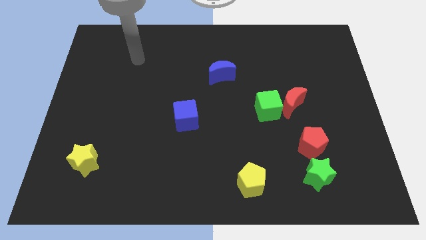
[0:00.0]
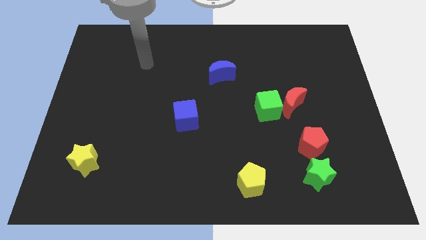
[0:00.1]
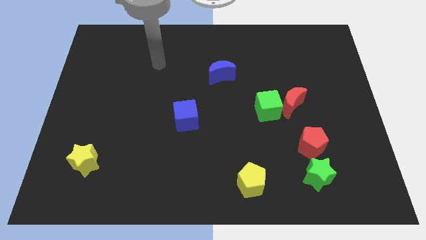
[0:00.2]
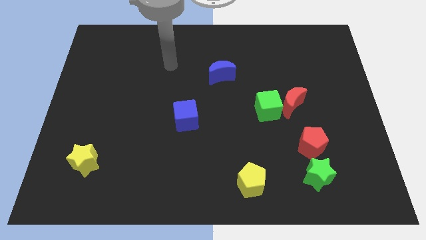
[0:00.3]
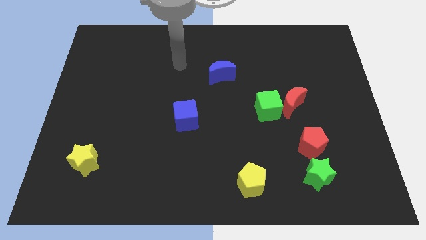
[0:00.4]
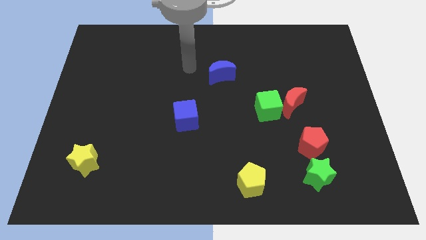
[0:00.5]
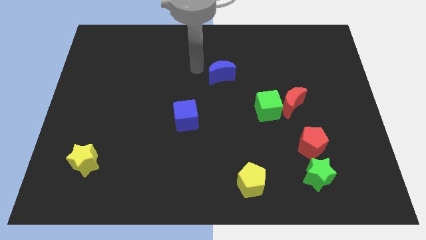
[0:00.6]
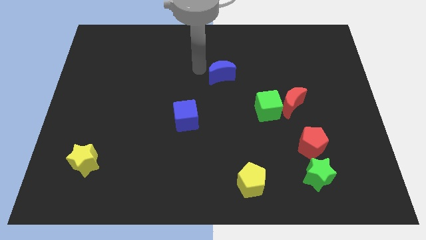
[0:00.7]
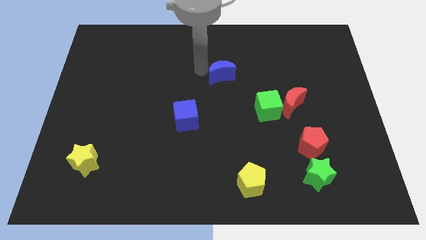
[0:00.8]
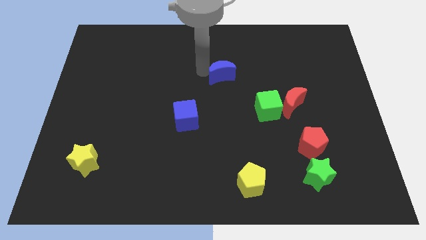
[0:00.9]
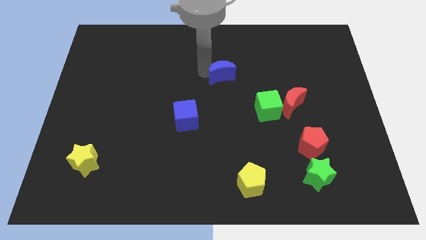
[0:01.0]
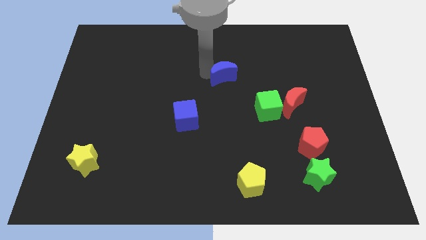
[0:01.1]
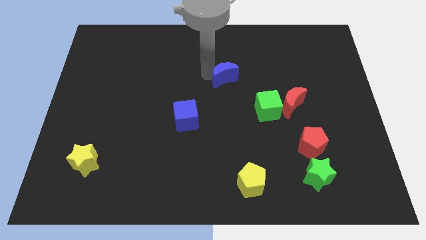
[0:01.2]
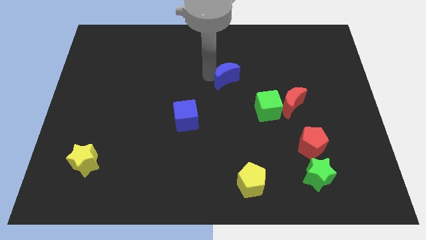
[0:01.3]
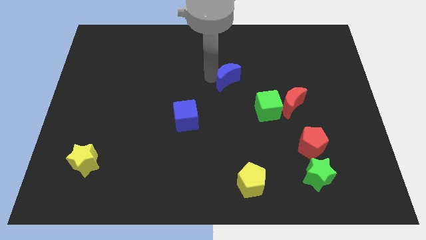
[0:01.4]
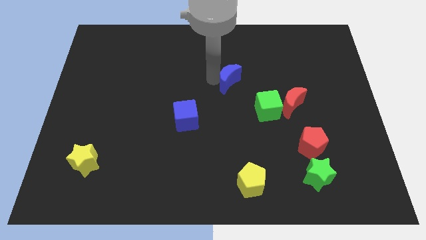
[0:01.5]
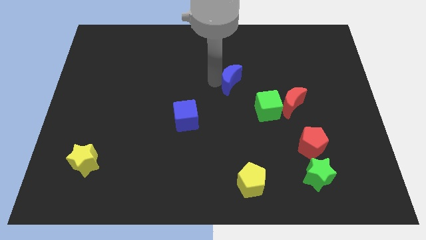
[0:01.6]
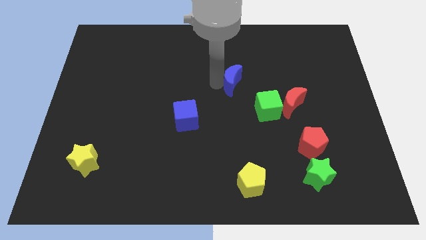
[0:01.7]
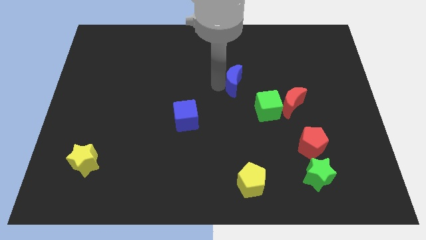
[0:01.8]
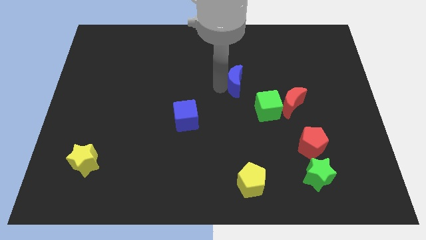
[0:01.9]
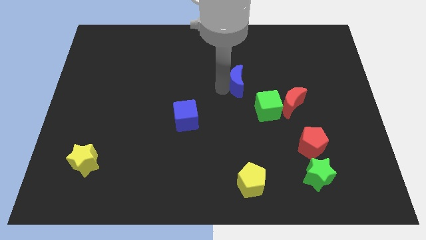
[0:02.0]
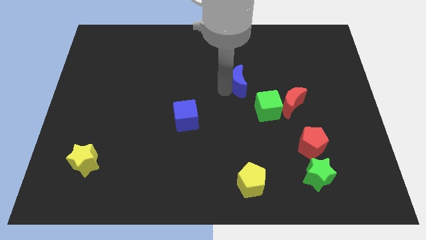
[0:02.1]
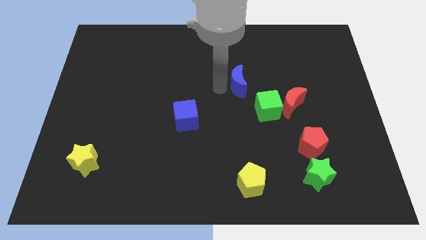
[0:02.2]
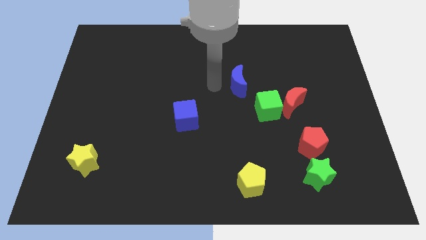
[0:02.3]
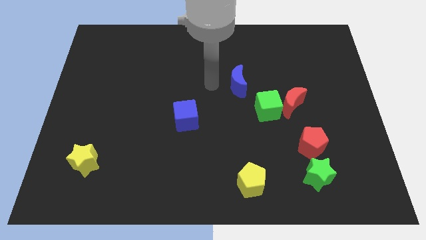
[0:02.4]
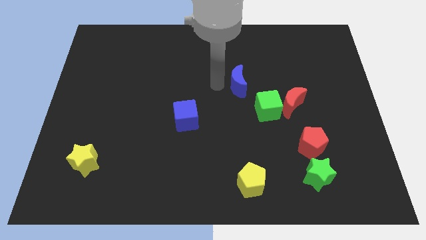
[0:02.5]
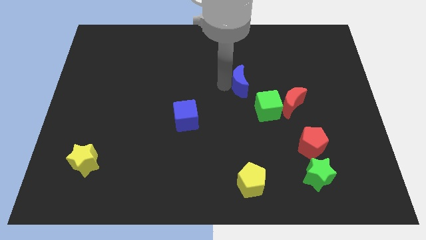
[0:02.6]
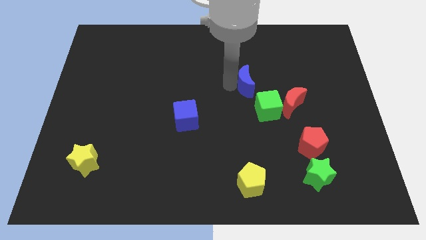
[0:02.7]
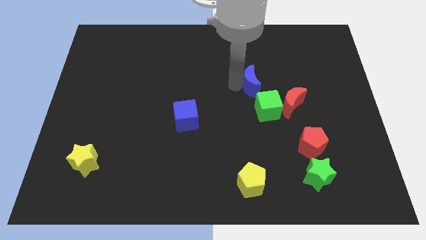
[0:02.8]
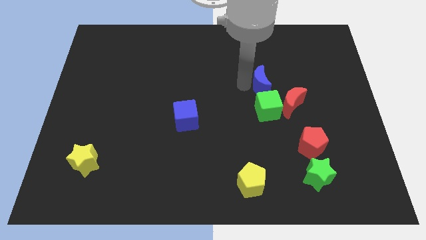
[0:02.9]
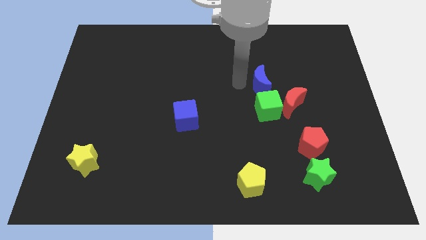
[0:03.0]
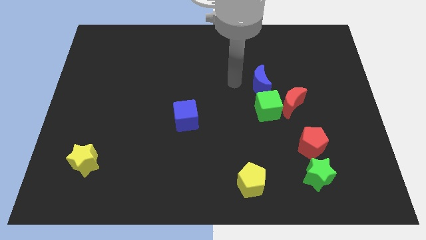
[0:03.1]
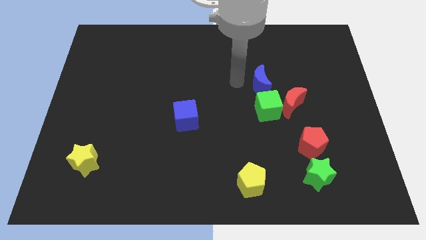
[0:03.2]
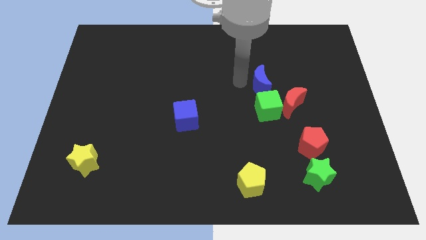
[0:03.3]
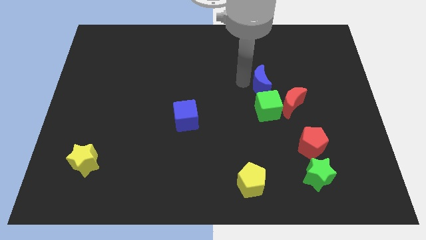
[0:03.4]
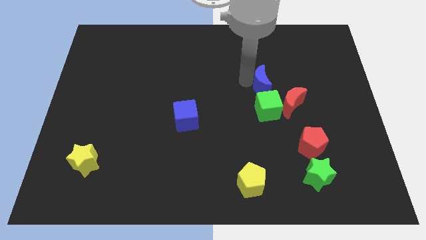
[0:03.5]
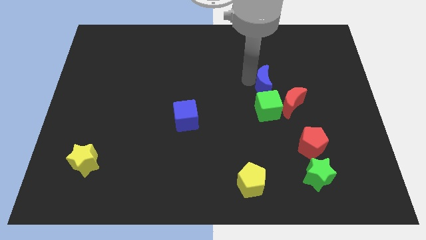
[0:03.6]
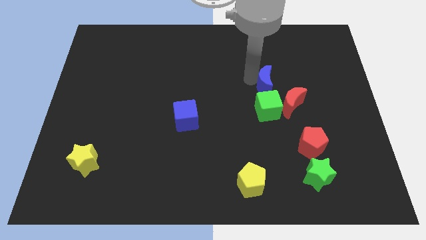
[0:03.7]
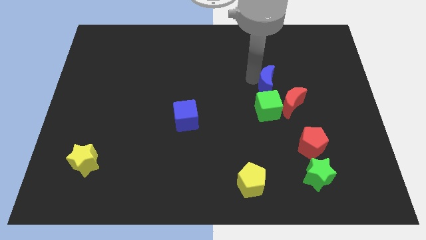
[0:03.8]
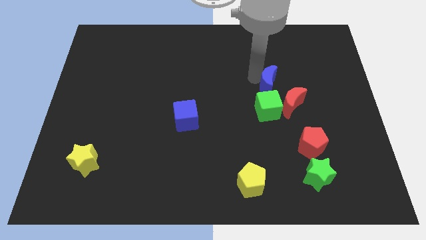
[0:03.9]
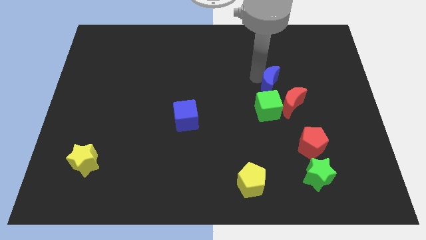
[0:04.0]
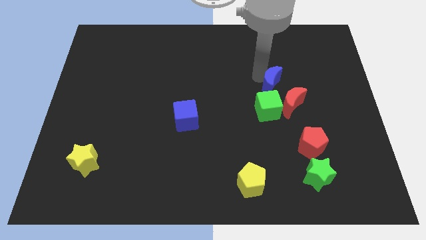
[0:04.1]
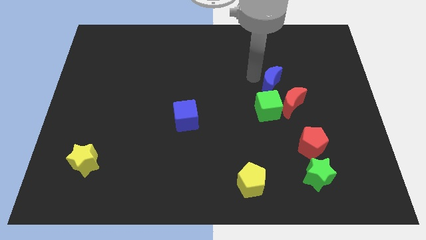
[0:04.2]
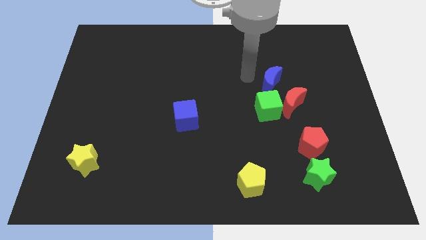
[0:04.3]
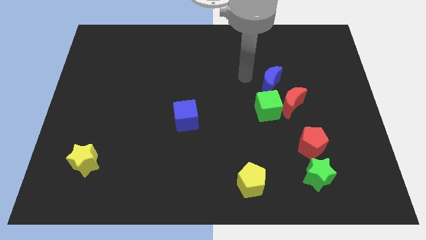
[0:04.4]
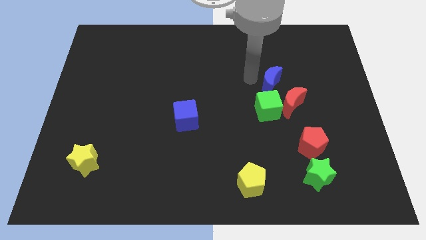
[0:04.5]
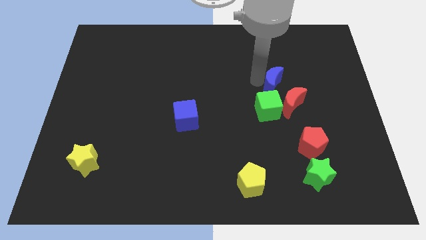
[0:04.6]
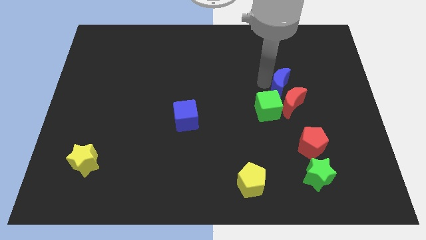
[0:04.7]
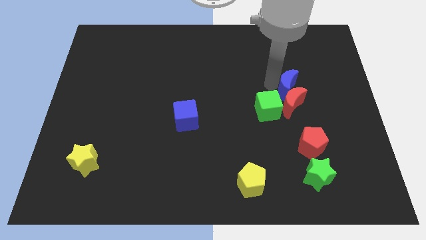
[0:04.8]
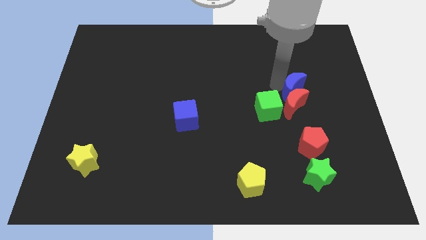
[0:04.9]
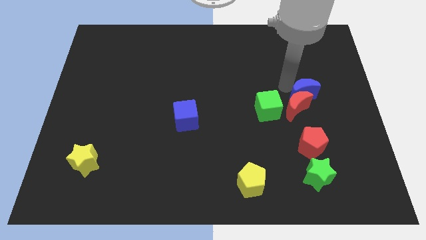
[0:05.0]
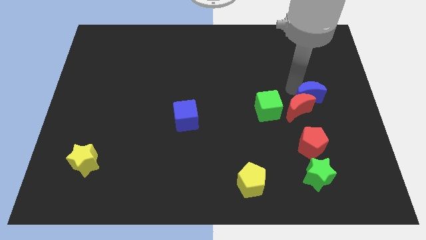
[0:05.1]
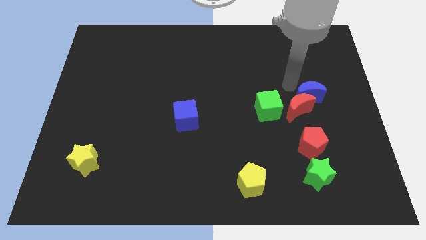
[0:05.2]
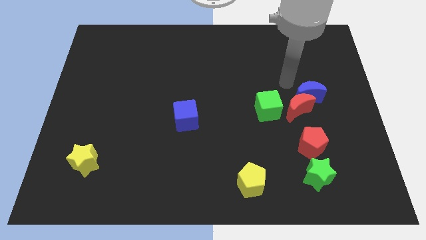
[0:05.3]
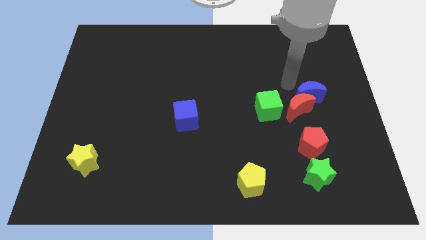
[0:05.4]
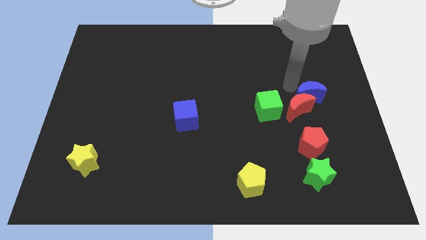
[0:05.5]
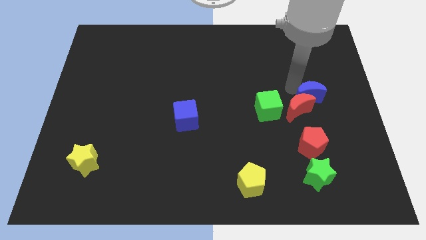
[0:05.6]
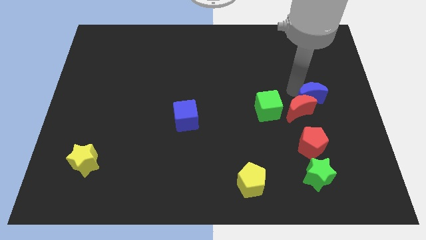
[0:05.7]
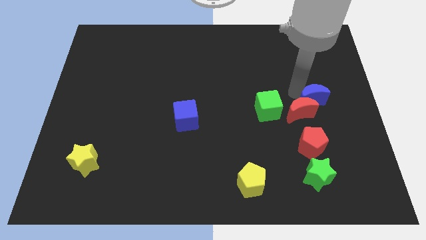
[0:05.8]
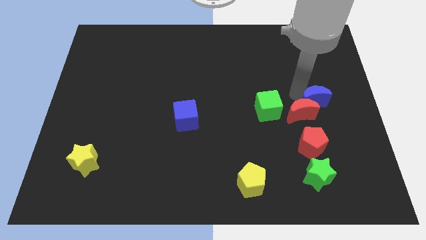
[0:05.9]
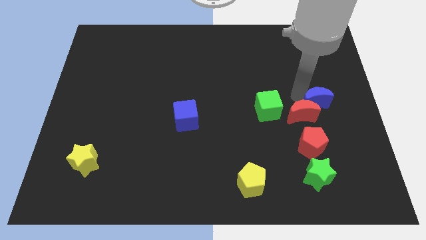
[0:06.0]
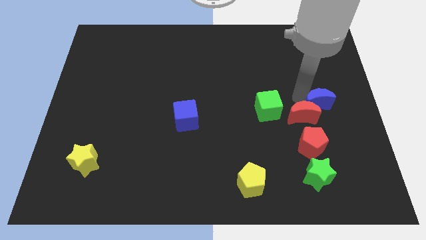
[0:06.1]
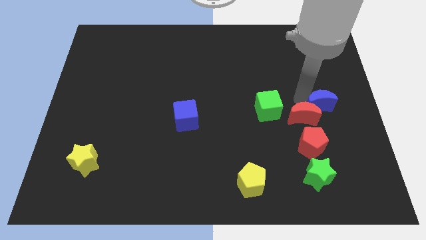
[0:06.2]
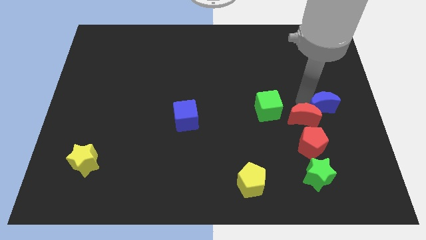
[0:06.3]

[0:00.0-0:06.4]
move the blue moon down and right diagonally

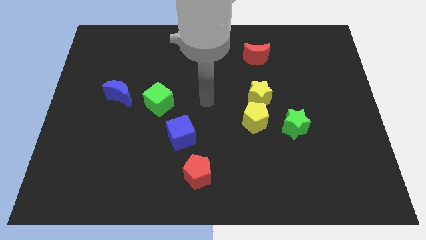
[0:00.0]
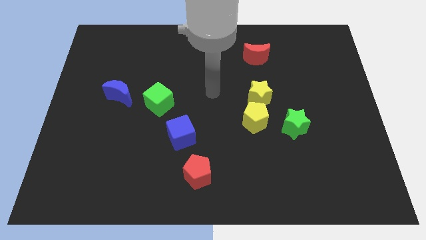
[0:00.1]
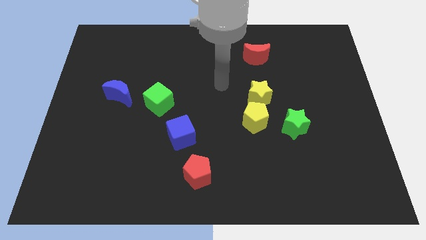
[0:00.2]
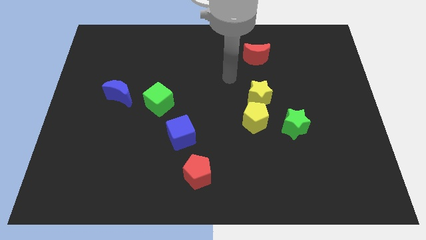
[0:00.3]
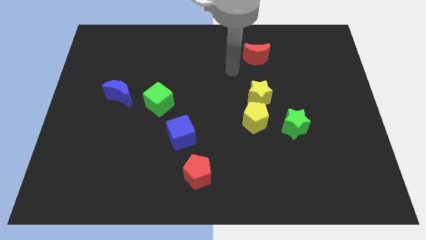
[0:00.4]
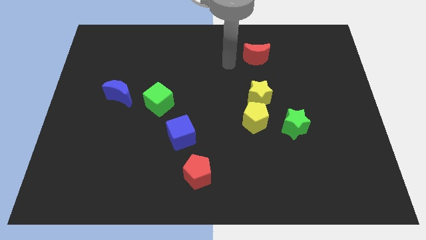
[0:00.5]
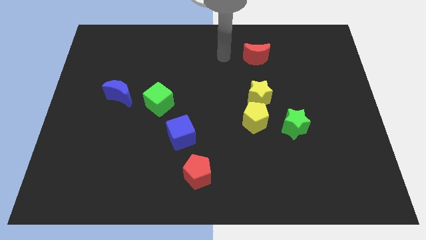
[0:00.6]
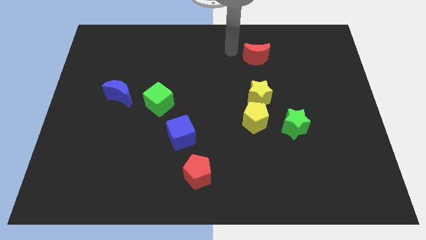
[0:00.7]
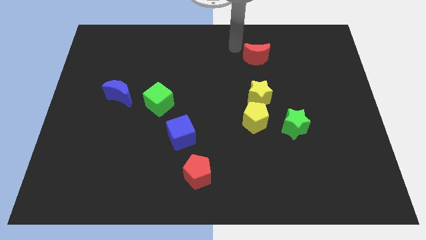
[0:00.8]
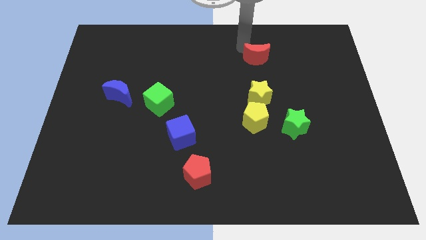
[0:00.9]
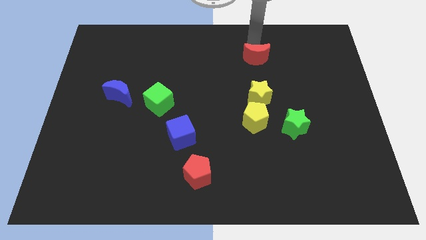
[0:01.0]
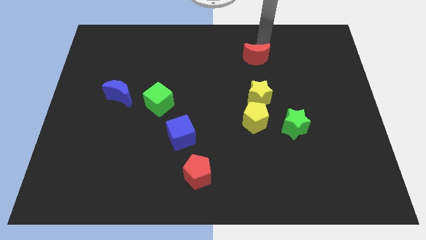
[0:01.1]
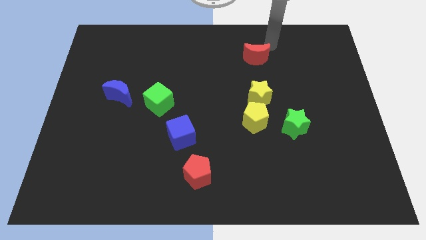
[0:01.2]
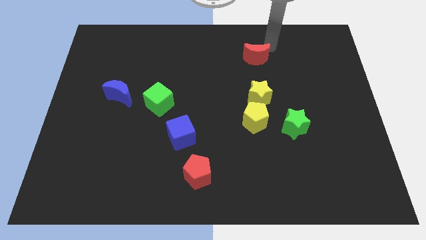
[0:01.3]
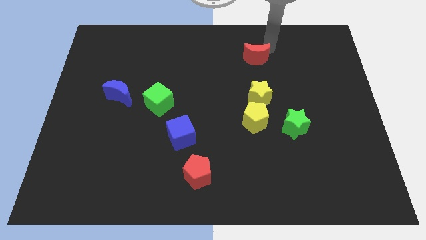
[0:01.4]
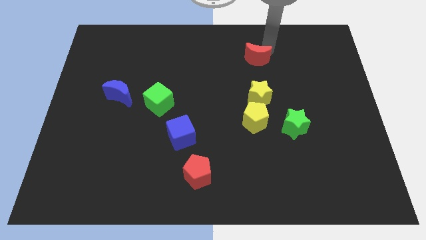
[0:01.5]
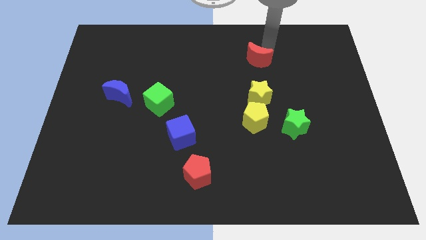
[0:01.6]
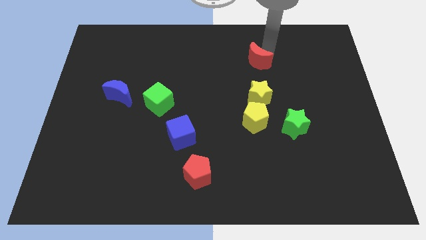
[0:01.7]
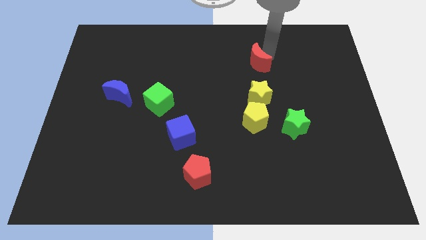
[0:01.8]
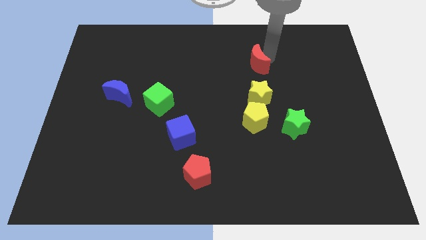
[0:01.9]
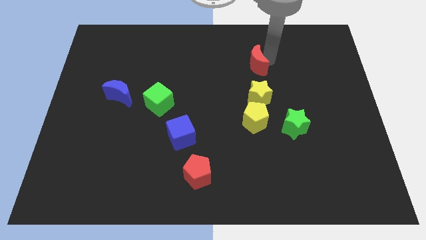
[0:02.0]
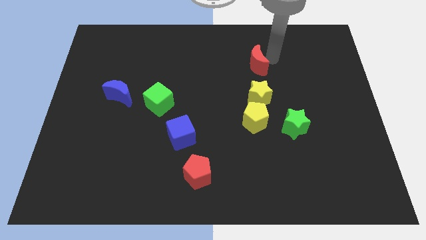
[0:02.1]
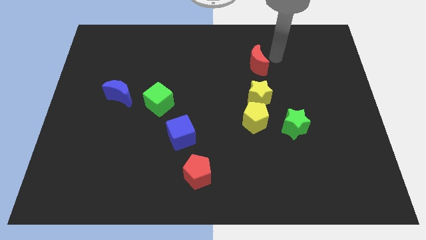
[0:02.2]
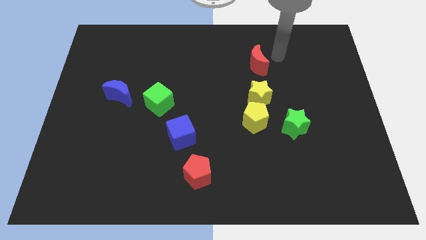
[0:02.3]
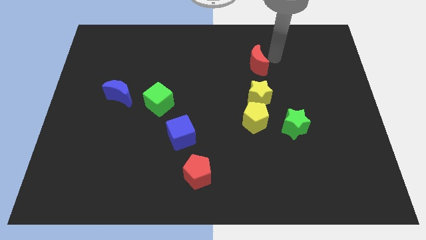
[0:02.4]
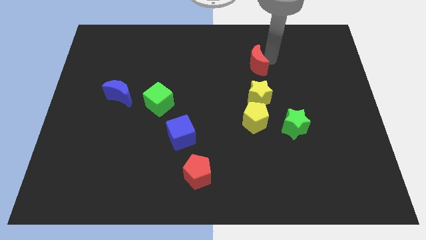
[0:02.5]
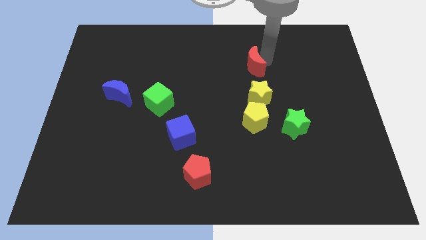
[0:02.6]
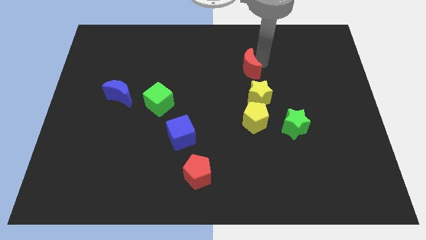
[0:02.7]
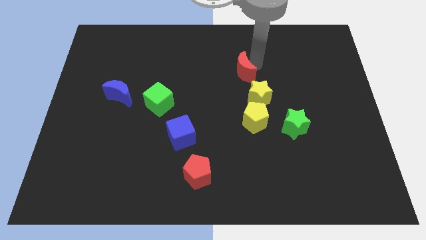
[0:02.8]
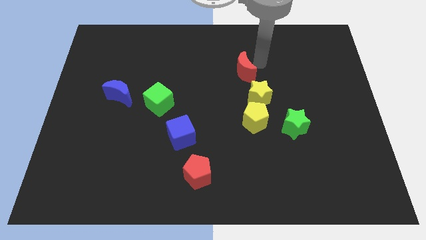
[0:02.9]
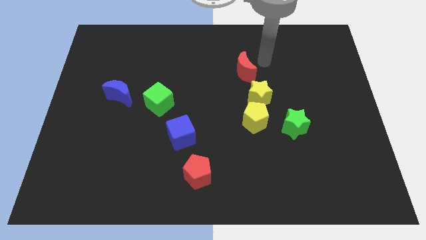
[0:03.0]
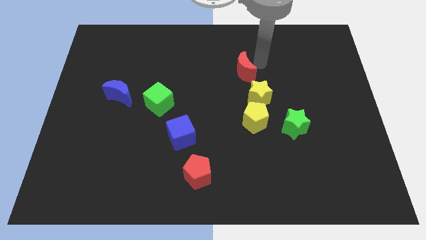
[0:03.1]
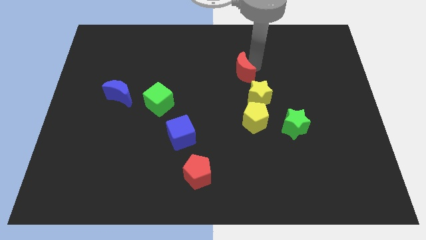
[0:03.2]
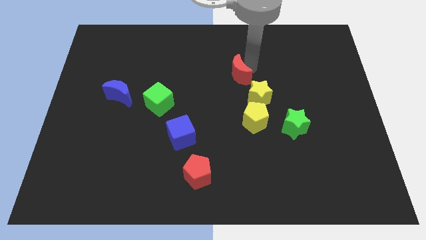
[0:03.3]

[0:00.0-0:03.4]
move the red moon a bit diagonally downwards and left
